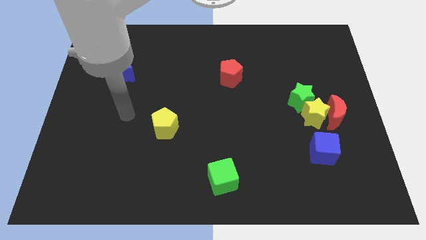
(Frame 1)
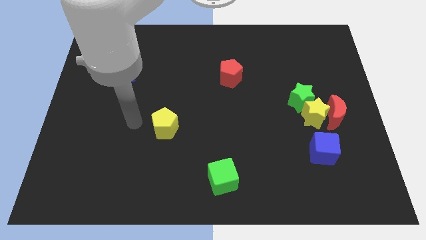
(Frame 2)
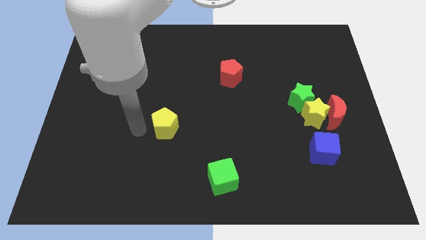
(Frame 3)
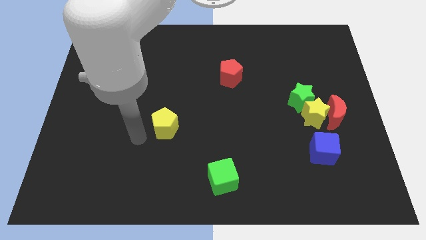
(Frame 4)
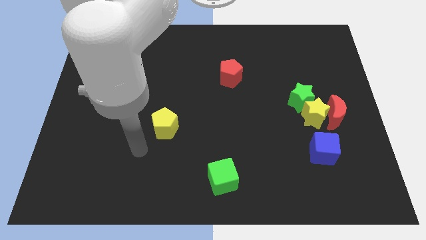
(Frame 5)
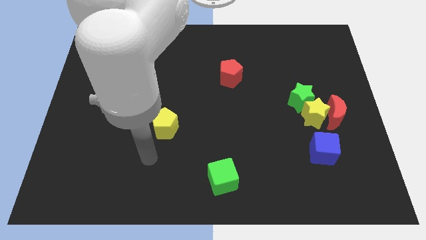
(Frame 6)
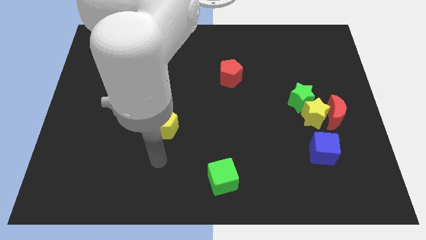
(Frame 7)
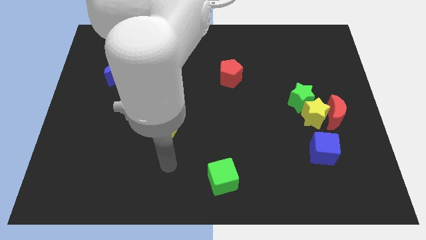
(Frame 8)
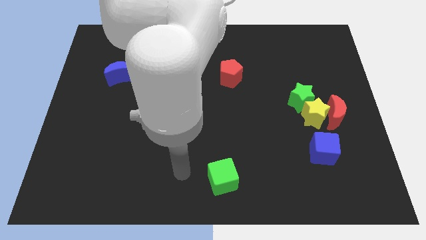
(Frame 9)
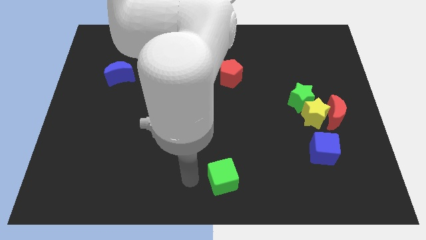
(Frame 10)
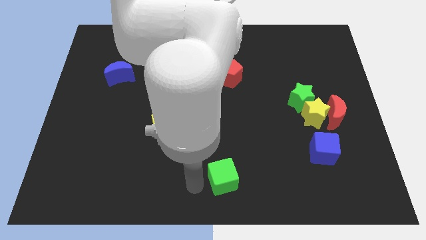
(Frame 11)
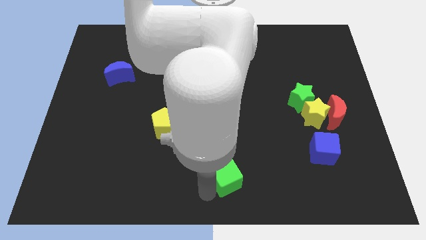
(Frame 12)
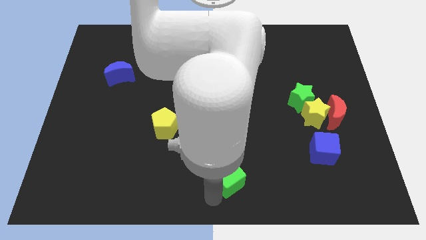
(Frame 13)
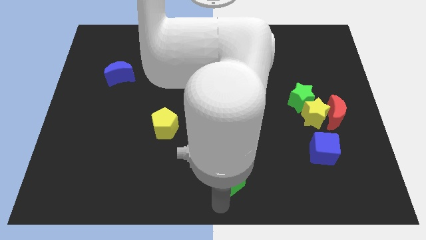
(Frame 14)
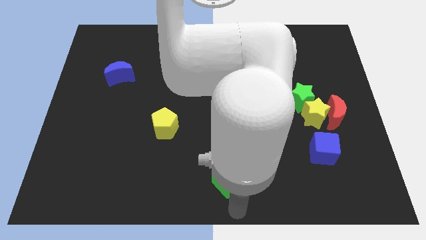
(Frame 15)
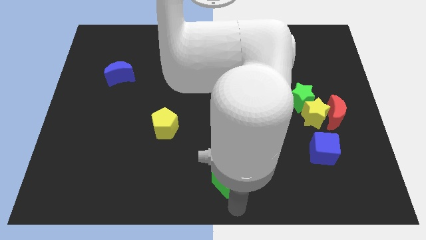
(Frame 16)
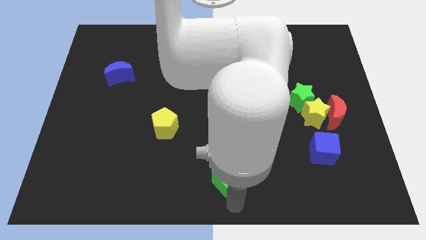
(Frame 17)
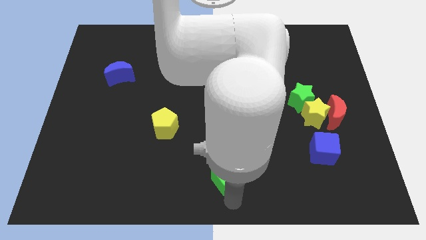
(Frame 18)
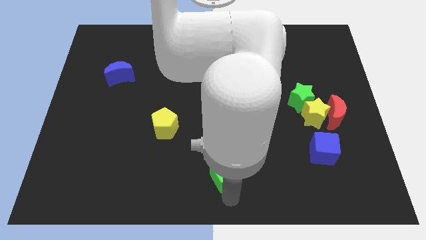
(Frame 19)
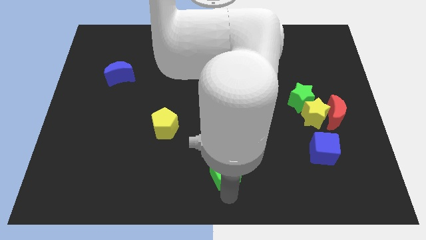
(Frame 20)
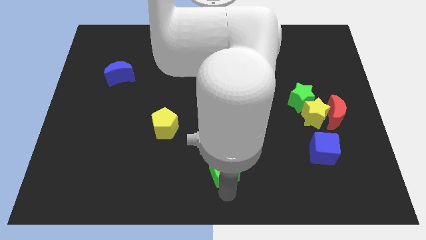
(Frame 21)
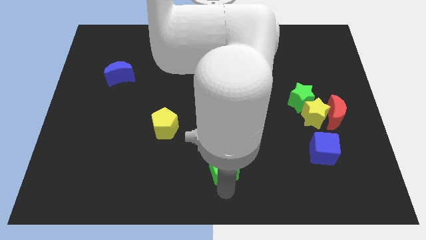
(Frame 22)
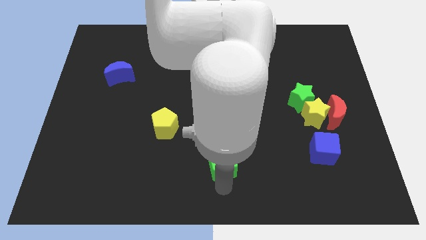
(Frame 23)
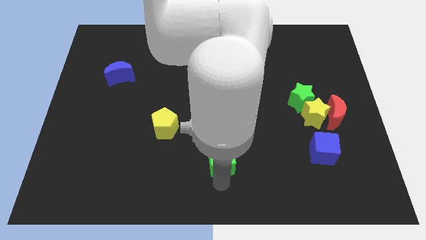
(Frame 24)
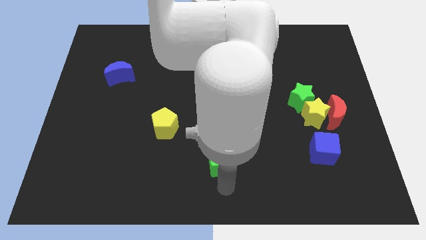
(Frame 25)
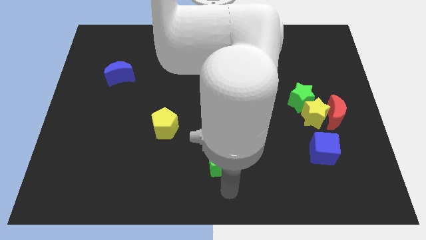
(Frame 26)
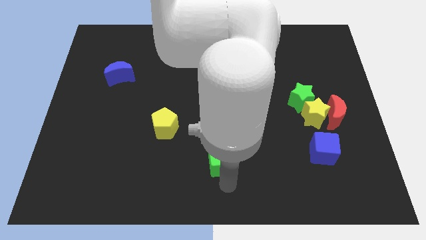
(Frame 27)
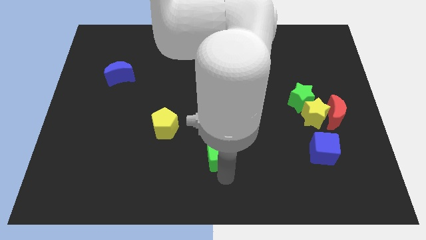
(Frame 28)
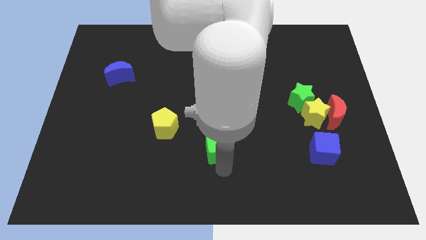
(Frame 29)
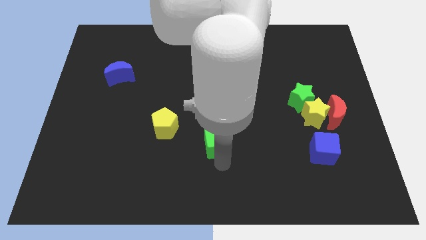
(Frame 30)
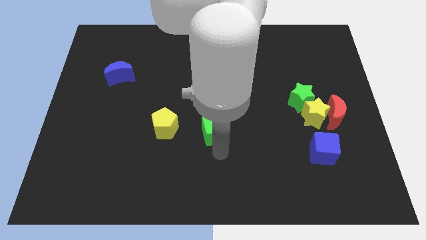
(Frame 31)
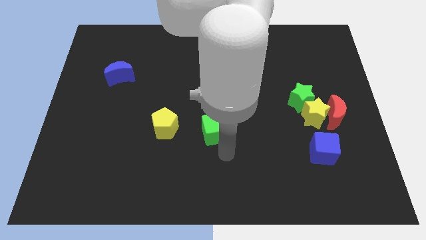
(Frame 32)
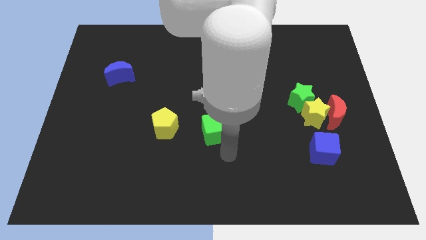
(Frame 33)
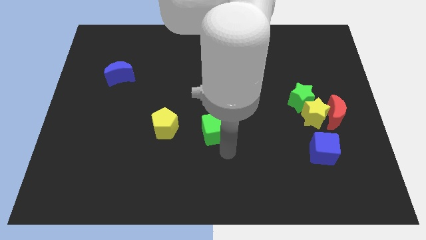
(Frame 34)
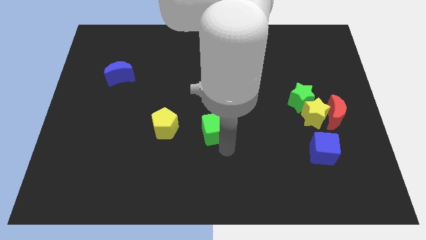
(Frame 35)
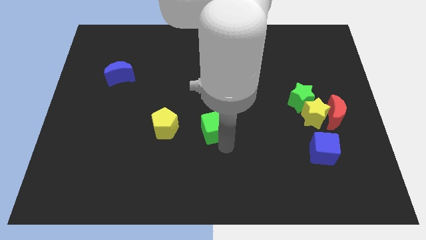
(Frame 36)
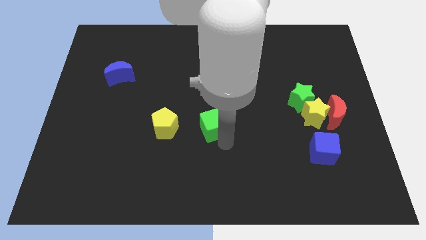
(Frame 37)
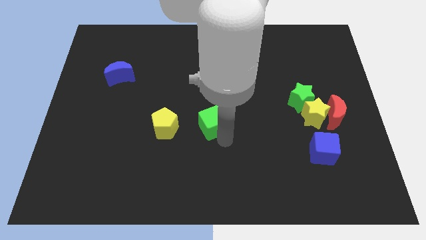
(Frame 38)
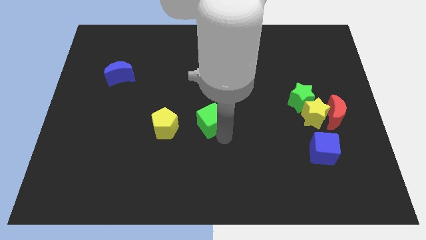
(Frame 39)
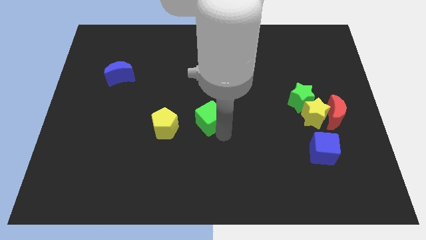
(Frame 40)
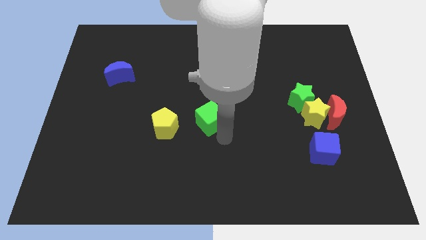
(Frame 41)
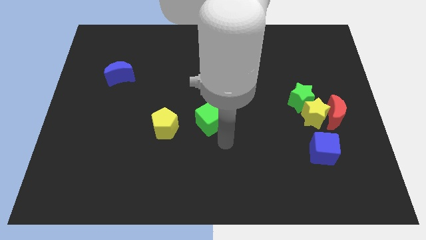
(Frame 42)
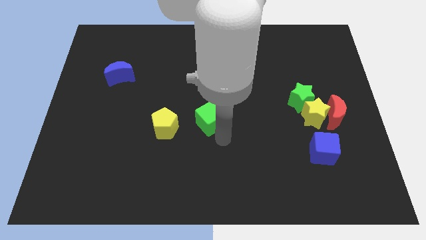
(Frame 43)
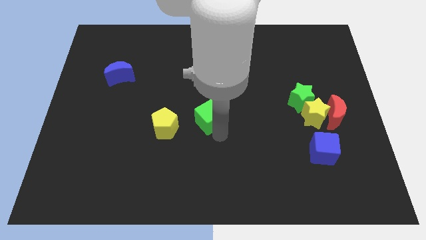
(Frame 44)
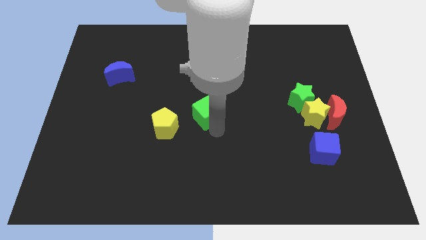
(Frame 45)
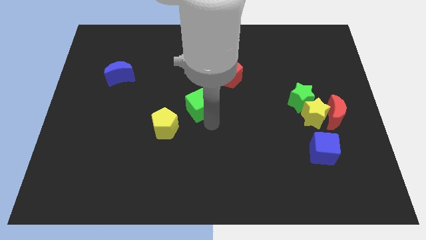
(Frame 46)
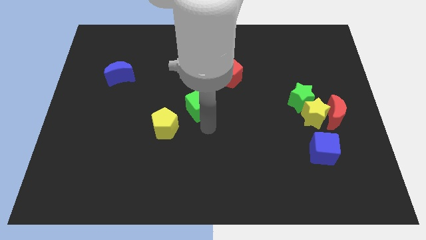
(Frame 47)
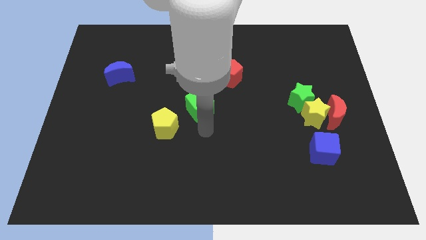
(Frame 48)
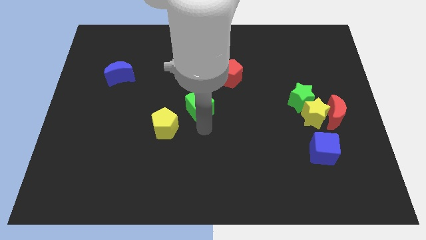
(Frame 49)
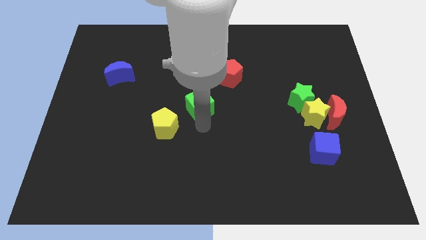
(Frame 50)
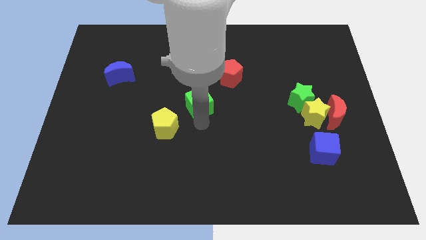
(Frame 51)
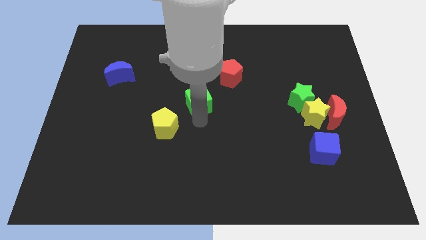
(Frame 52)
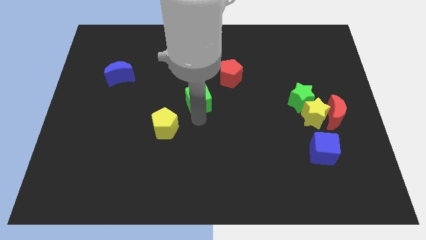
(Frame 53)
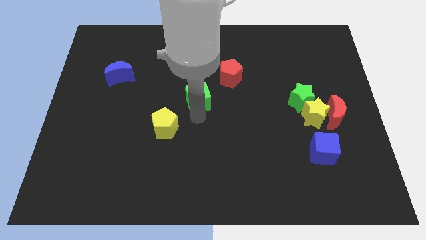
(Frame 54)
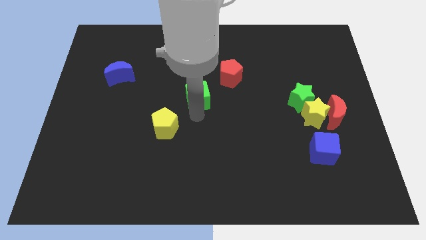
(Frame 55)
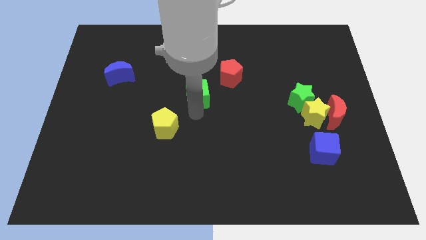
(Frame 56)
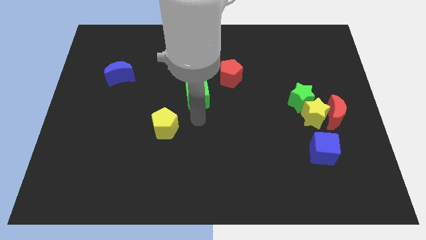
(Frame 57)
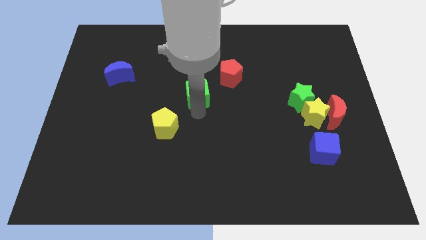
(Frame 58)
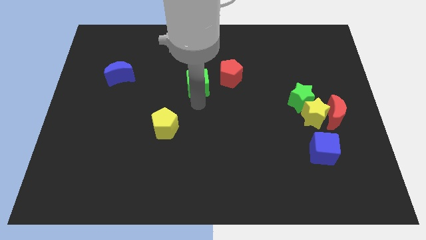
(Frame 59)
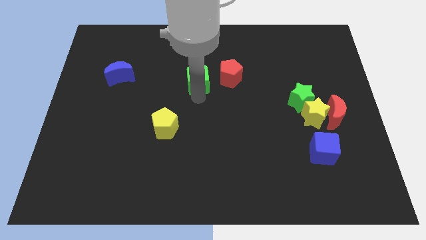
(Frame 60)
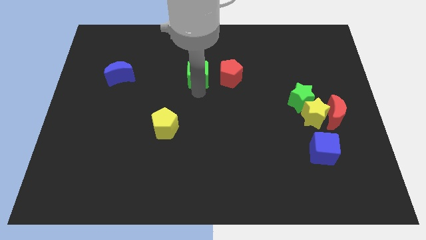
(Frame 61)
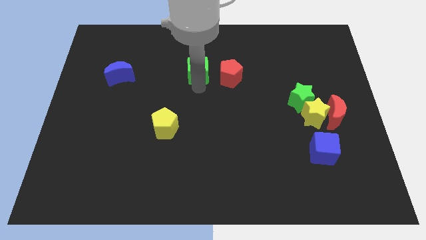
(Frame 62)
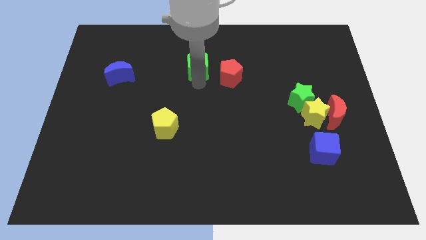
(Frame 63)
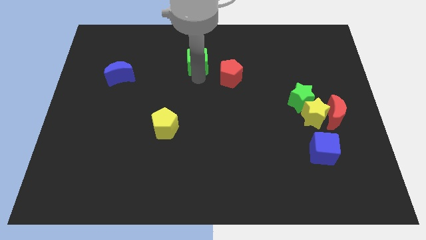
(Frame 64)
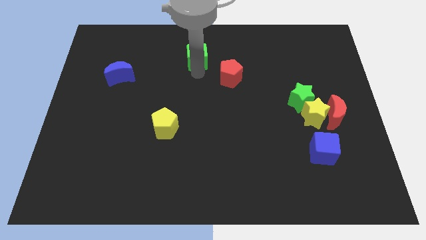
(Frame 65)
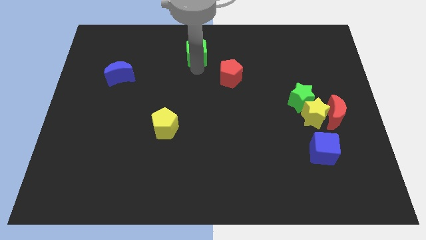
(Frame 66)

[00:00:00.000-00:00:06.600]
push the green cube to the towards your base

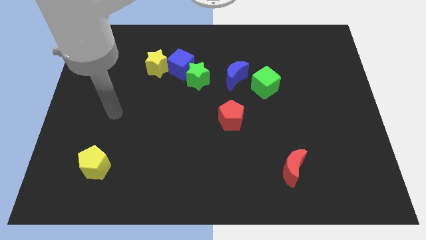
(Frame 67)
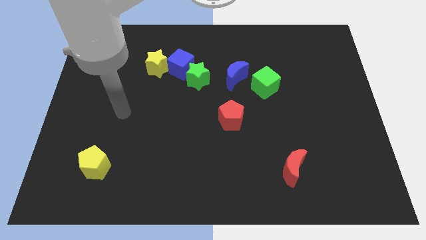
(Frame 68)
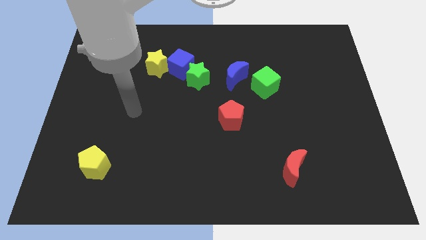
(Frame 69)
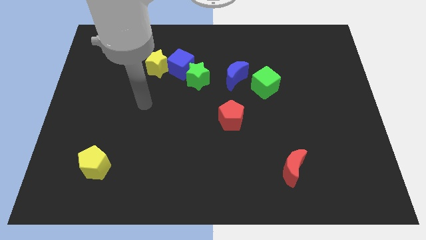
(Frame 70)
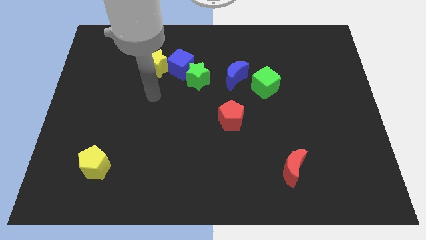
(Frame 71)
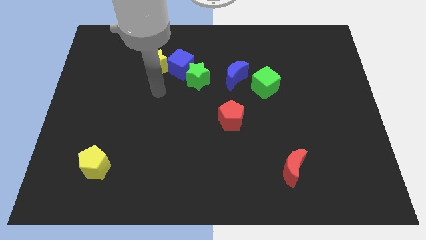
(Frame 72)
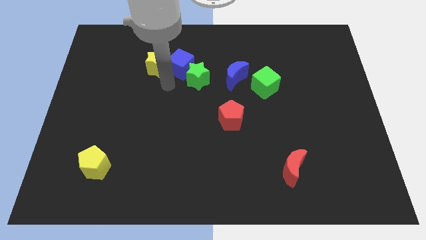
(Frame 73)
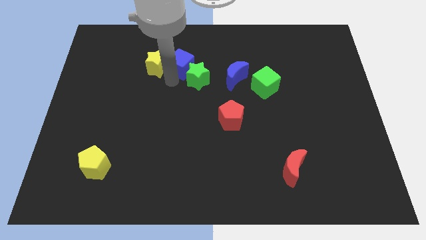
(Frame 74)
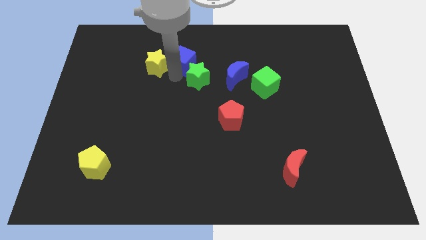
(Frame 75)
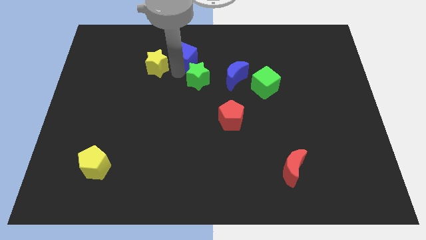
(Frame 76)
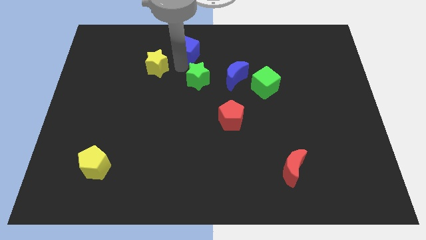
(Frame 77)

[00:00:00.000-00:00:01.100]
slide the blue cube to the towards your base
